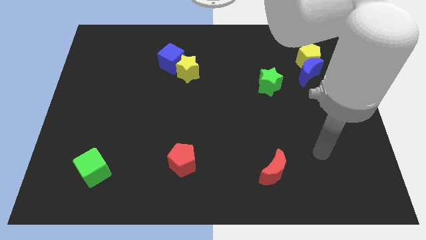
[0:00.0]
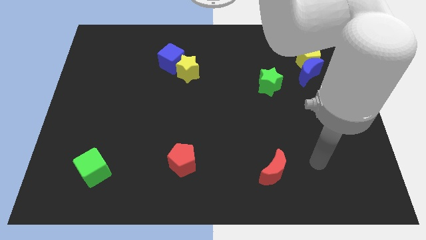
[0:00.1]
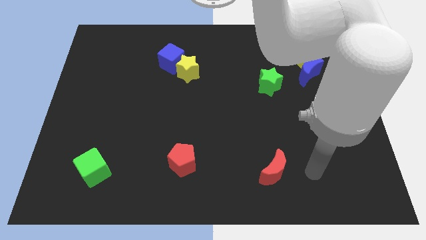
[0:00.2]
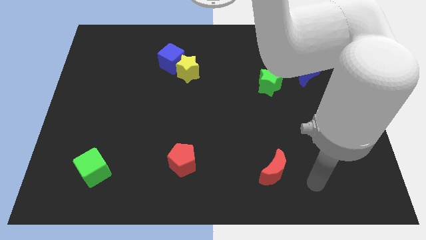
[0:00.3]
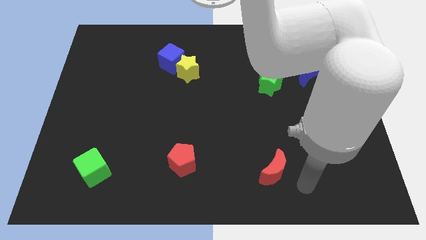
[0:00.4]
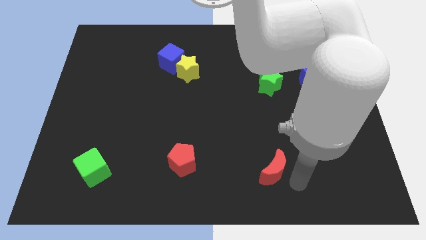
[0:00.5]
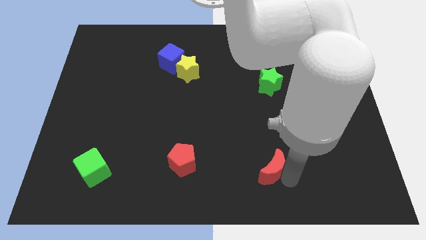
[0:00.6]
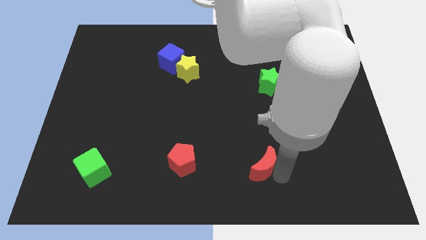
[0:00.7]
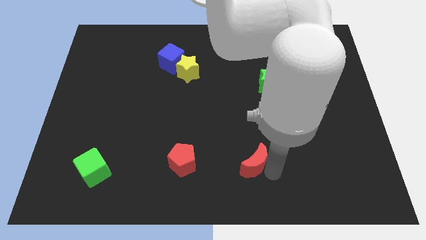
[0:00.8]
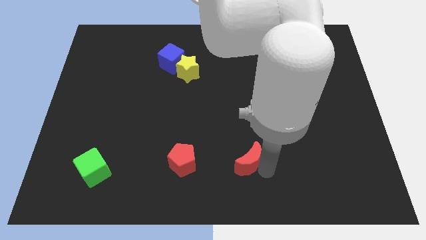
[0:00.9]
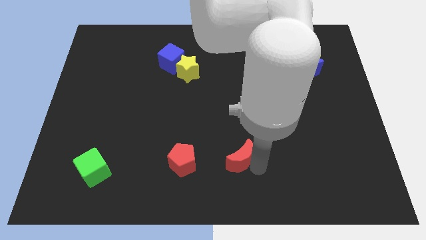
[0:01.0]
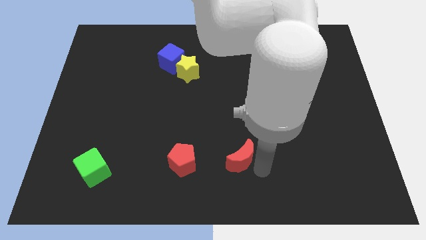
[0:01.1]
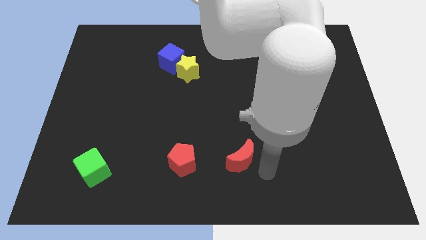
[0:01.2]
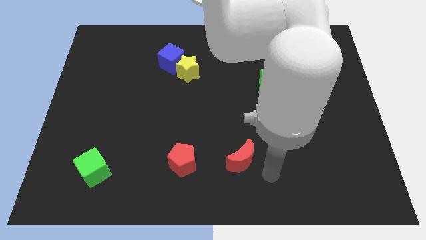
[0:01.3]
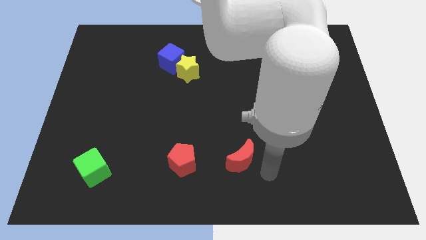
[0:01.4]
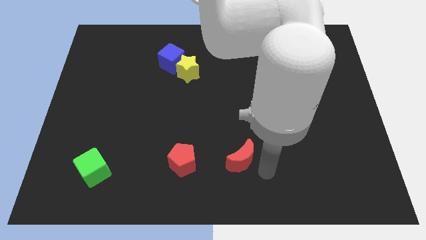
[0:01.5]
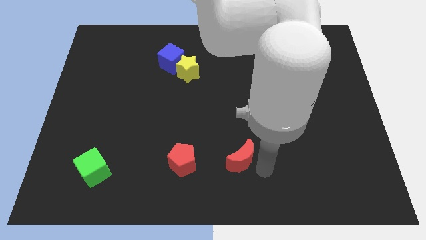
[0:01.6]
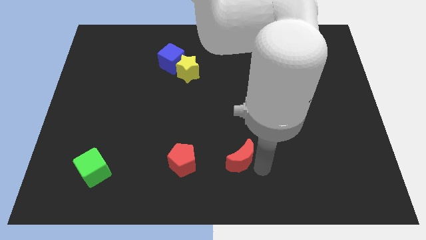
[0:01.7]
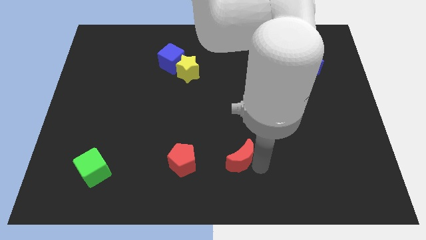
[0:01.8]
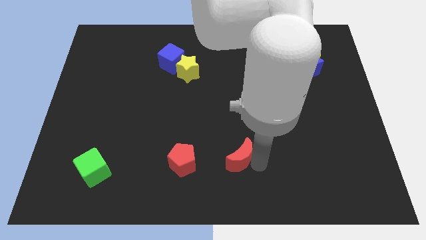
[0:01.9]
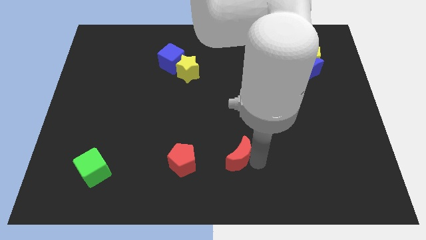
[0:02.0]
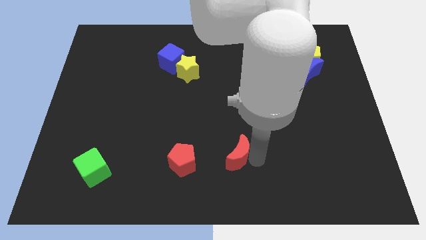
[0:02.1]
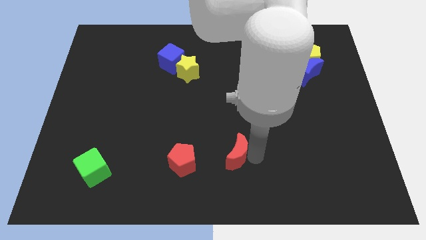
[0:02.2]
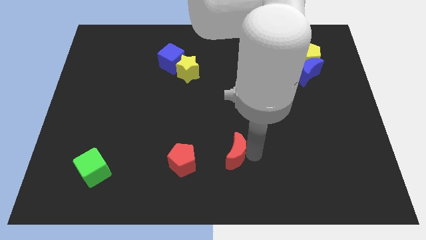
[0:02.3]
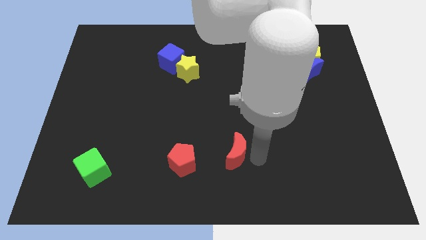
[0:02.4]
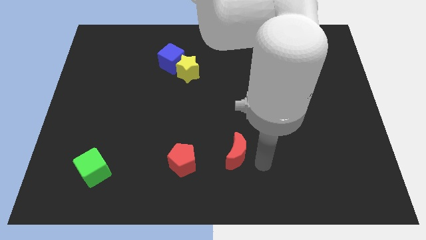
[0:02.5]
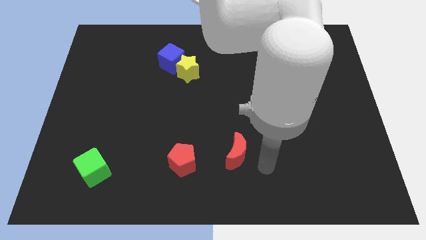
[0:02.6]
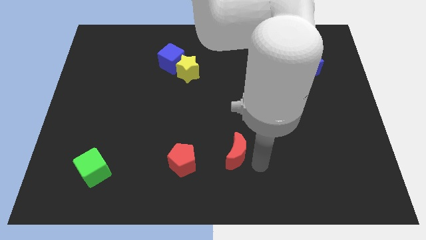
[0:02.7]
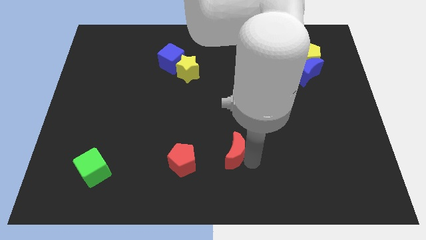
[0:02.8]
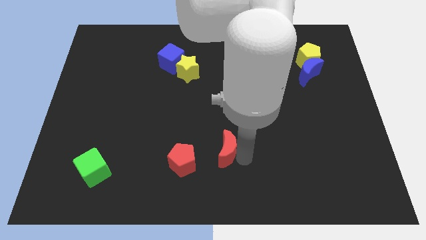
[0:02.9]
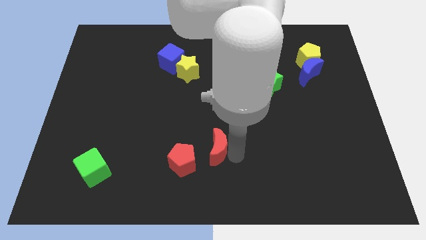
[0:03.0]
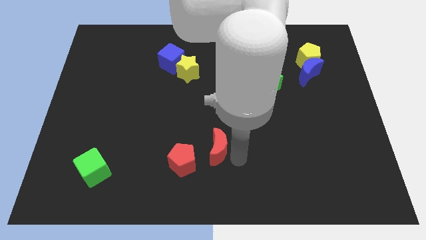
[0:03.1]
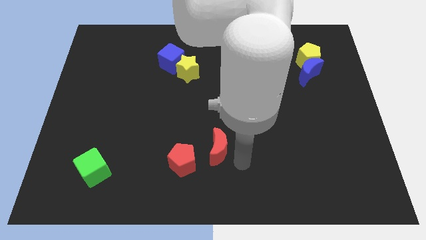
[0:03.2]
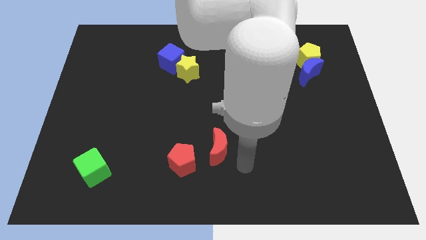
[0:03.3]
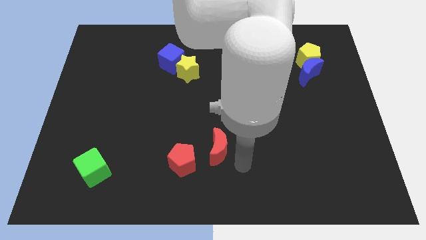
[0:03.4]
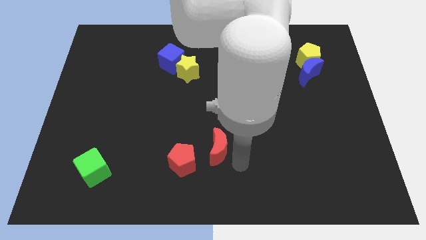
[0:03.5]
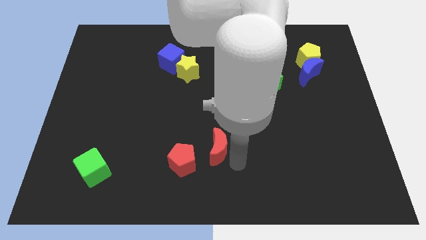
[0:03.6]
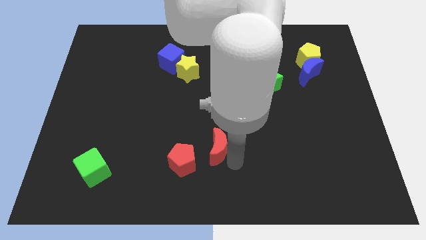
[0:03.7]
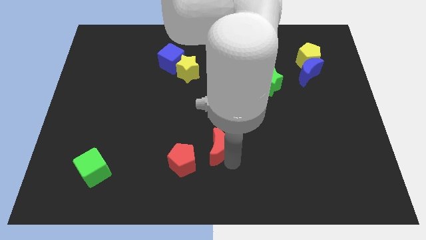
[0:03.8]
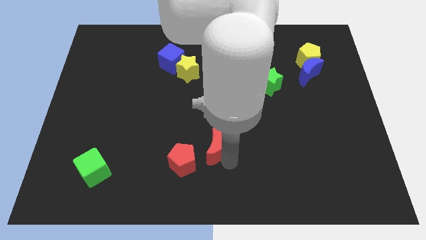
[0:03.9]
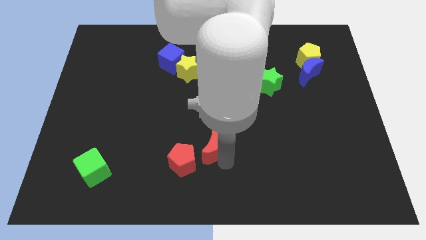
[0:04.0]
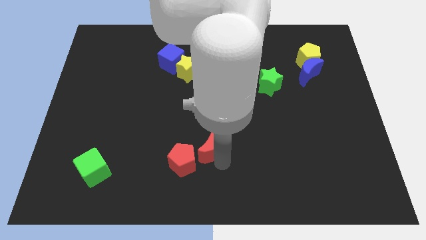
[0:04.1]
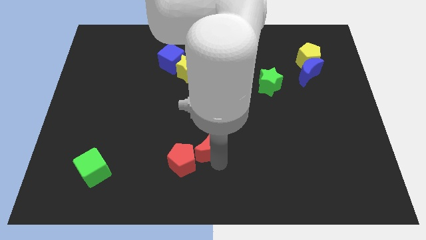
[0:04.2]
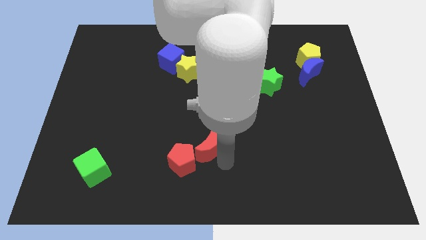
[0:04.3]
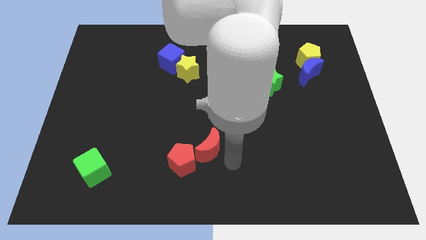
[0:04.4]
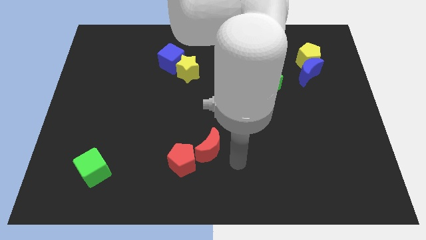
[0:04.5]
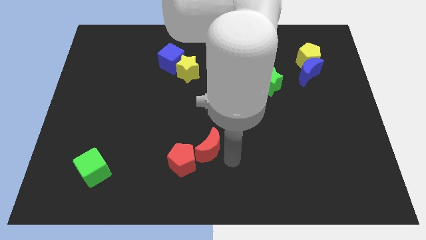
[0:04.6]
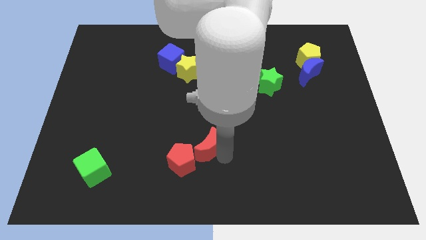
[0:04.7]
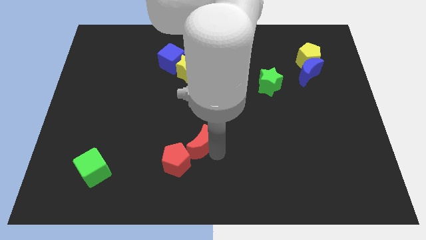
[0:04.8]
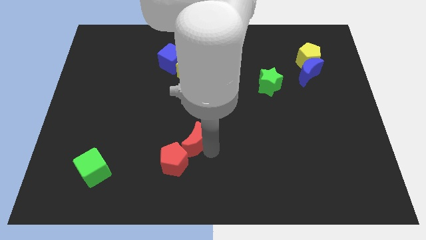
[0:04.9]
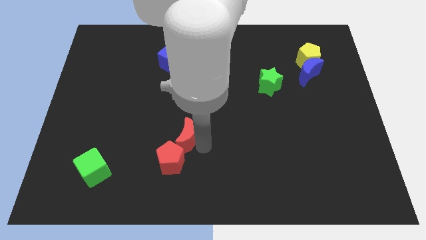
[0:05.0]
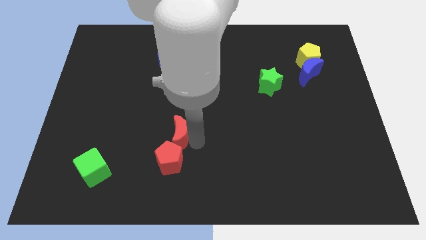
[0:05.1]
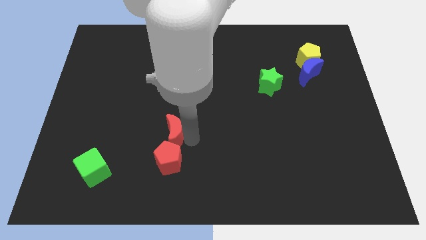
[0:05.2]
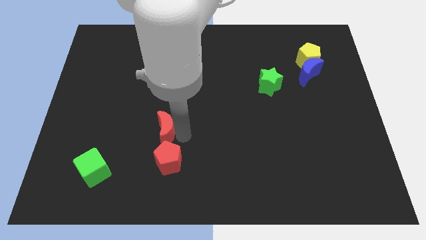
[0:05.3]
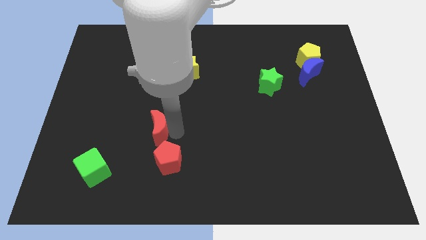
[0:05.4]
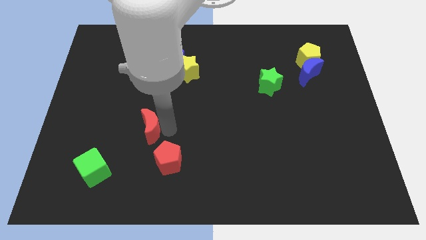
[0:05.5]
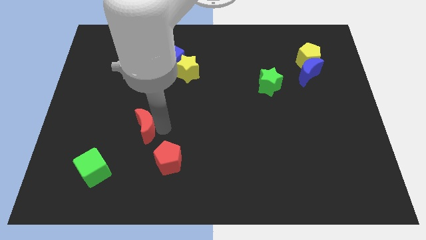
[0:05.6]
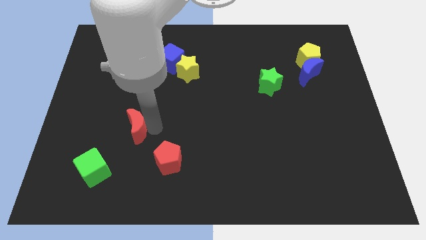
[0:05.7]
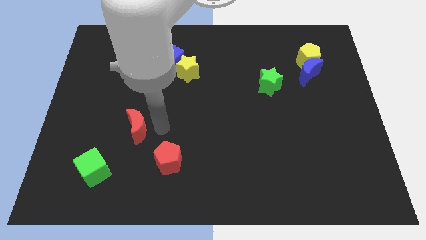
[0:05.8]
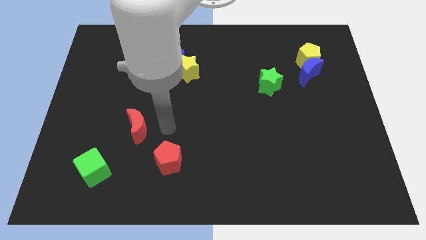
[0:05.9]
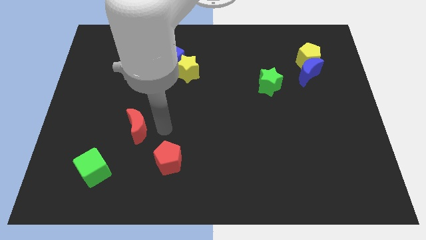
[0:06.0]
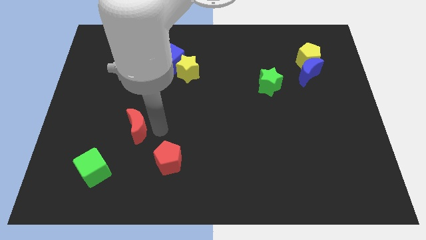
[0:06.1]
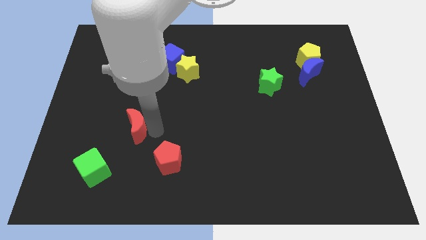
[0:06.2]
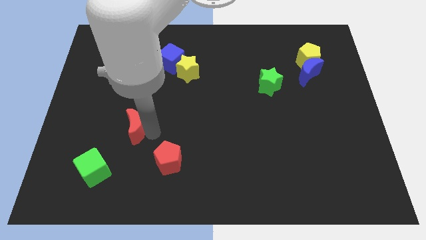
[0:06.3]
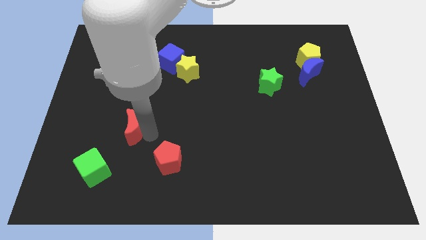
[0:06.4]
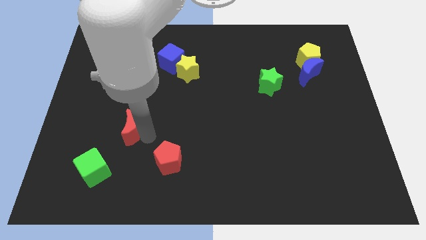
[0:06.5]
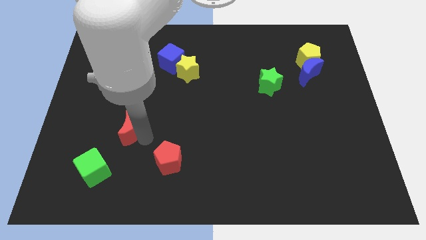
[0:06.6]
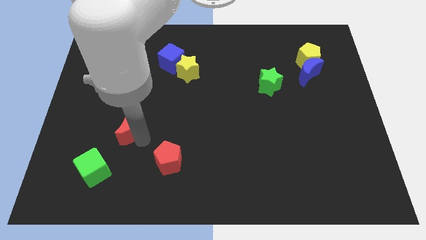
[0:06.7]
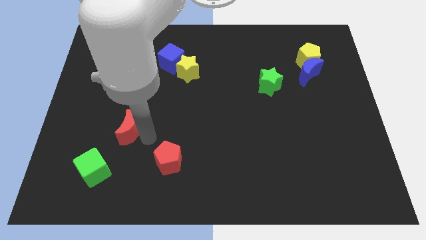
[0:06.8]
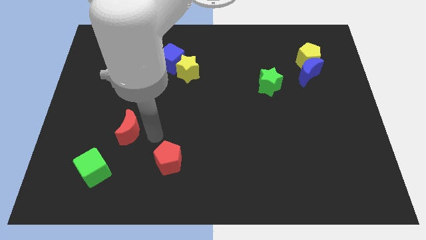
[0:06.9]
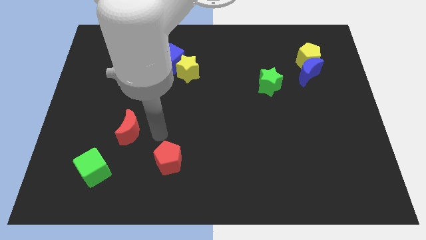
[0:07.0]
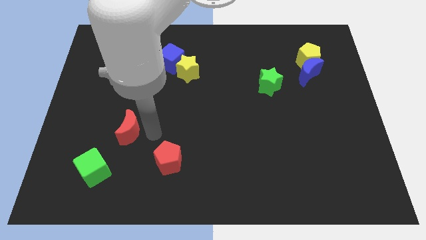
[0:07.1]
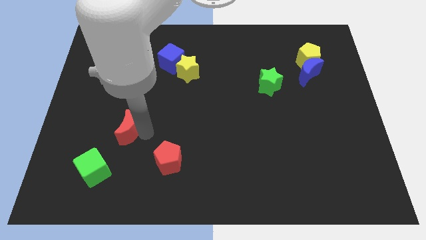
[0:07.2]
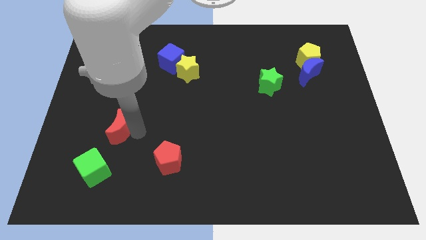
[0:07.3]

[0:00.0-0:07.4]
slide the red moon to the top of the green cube
